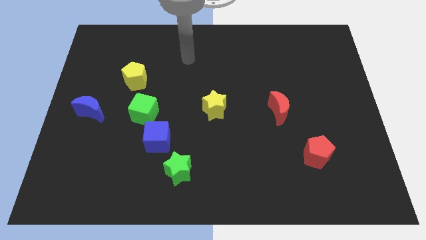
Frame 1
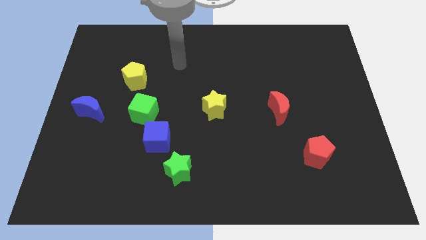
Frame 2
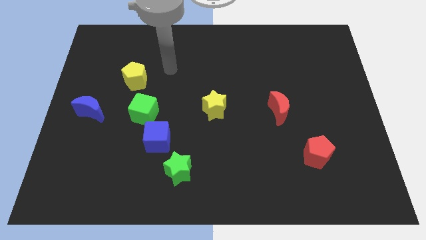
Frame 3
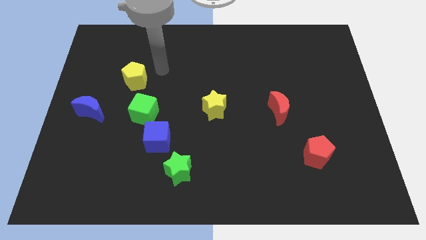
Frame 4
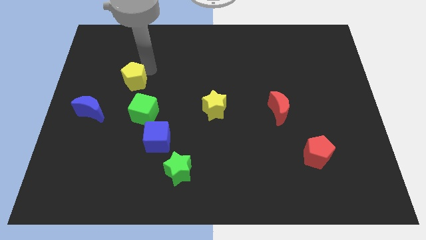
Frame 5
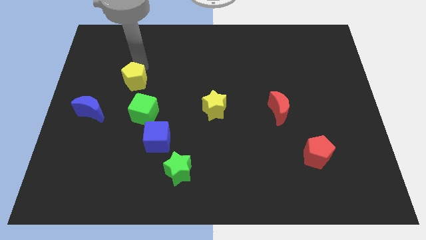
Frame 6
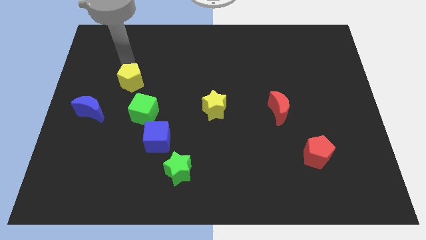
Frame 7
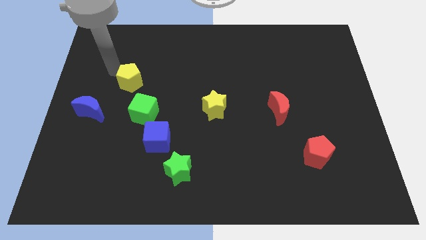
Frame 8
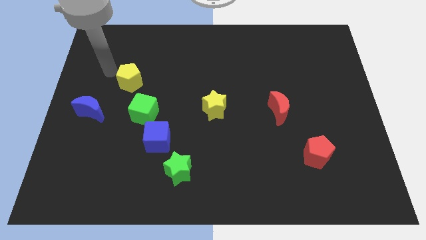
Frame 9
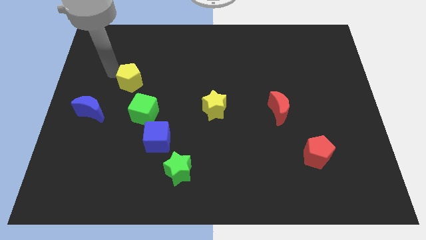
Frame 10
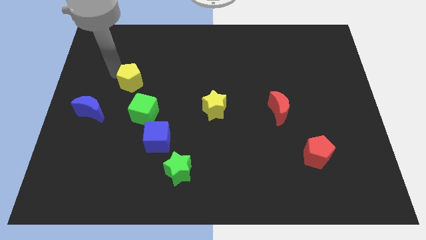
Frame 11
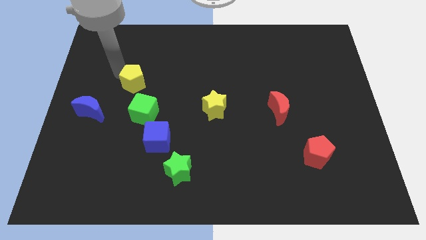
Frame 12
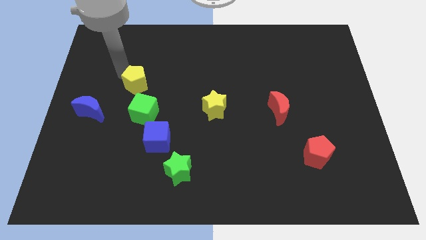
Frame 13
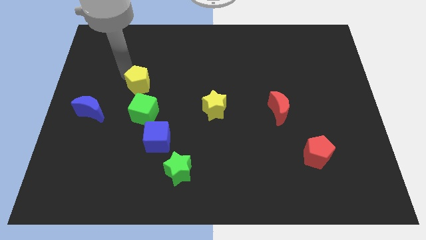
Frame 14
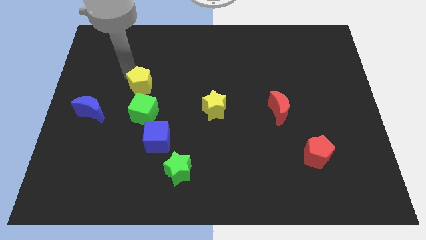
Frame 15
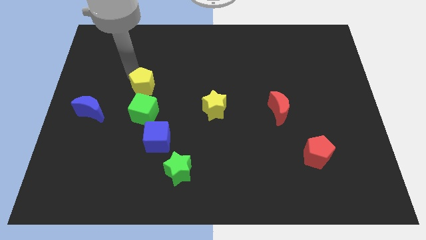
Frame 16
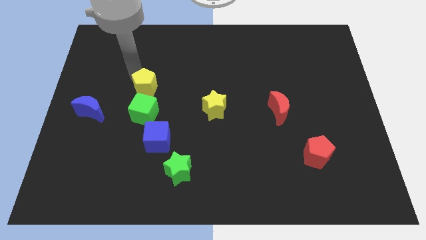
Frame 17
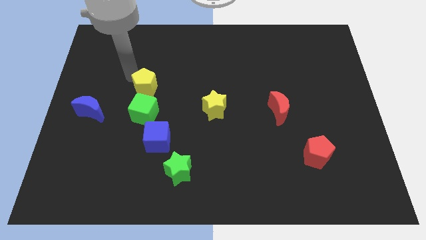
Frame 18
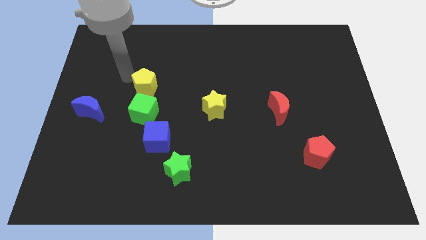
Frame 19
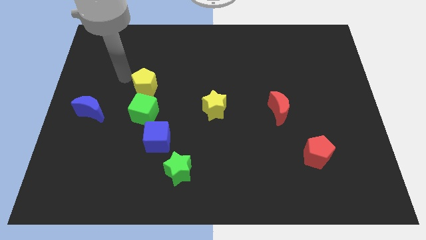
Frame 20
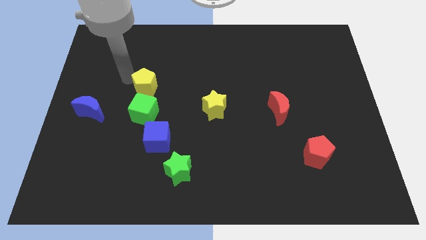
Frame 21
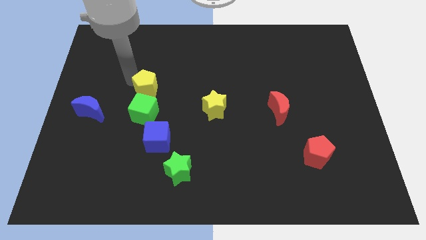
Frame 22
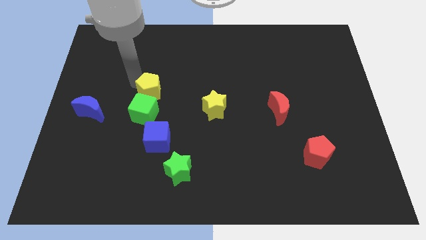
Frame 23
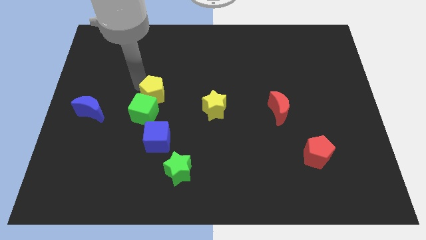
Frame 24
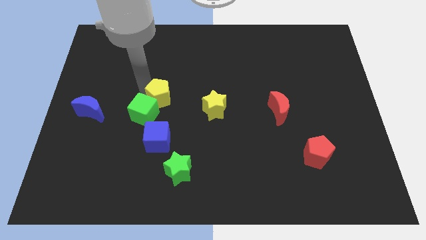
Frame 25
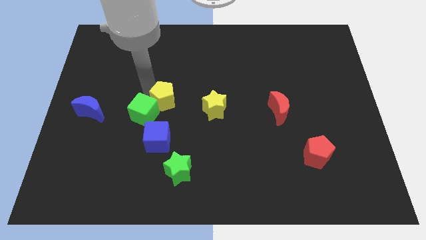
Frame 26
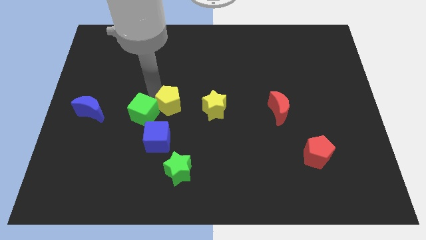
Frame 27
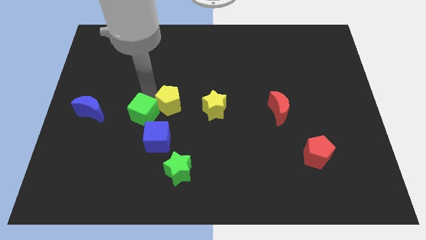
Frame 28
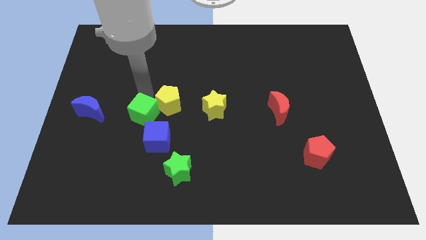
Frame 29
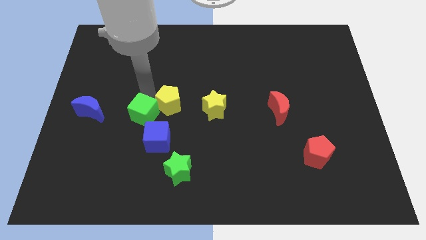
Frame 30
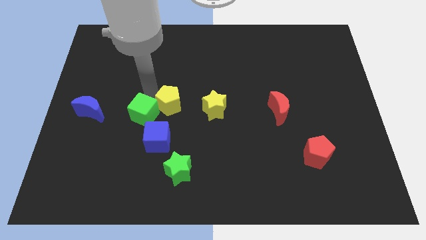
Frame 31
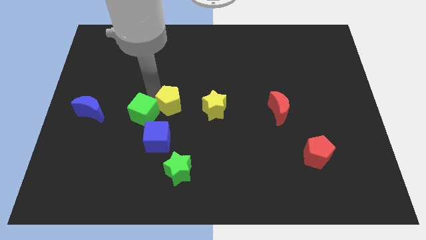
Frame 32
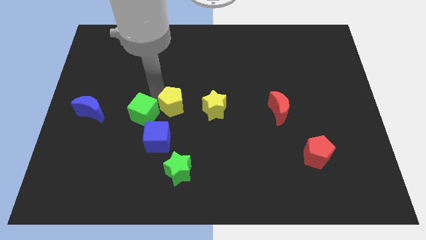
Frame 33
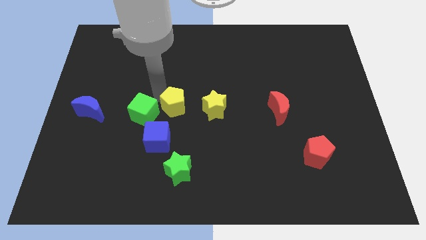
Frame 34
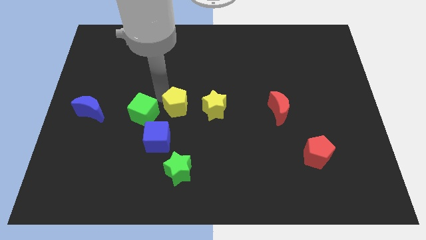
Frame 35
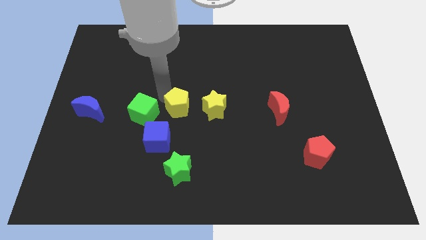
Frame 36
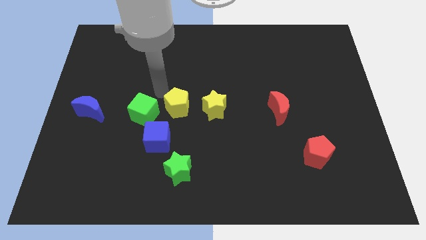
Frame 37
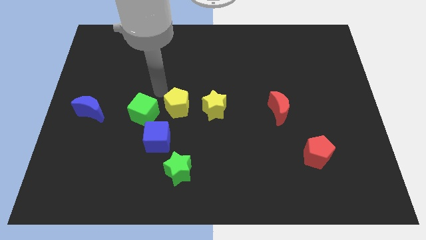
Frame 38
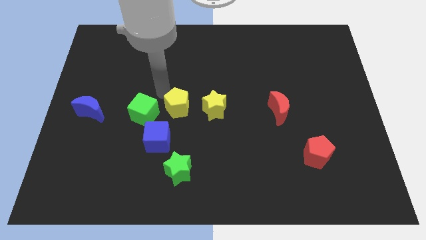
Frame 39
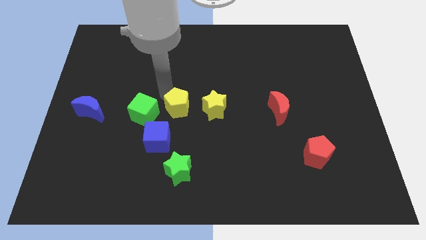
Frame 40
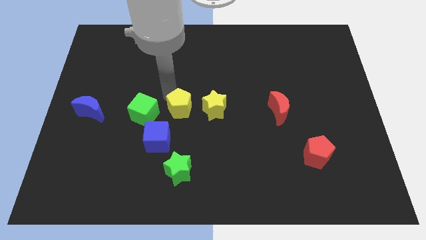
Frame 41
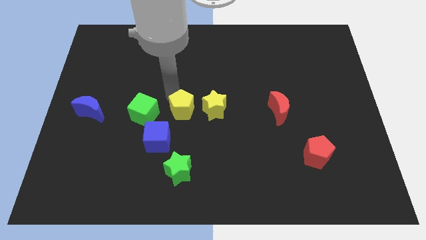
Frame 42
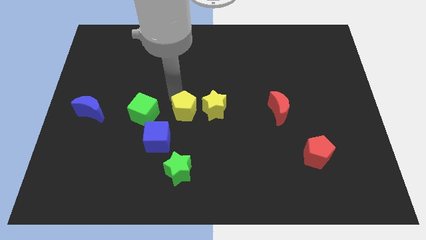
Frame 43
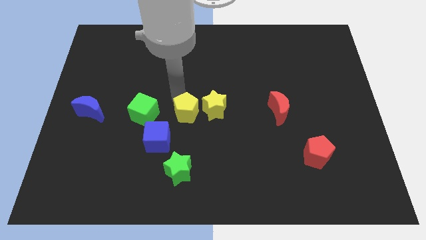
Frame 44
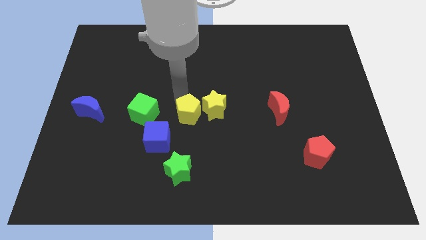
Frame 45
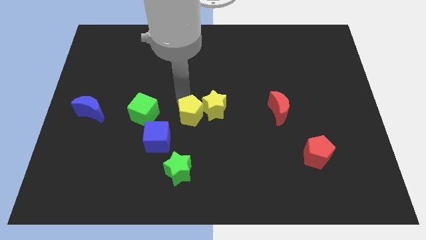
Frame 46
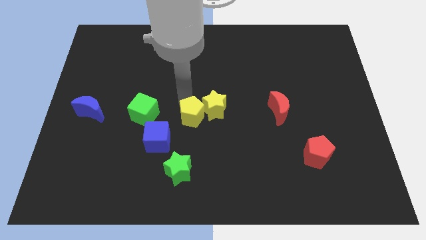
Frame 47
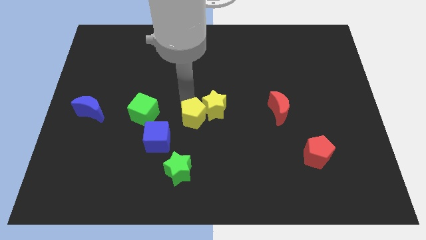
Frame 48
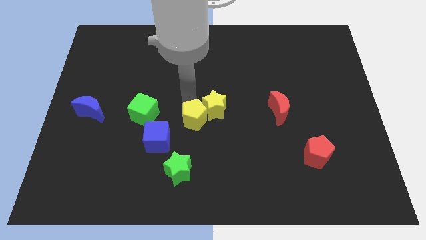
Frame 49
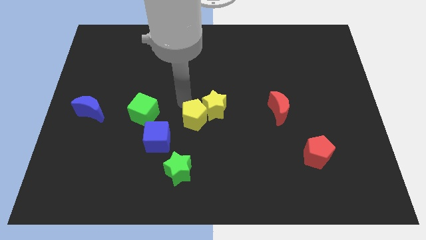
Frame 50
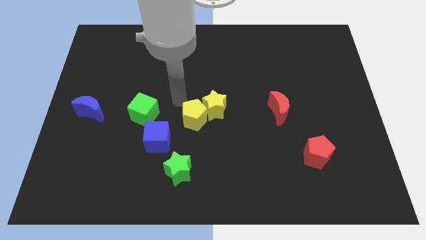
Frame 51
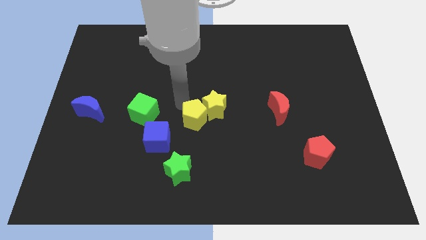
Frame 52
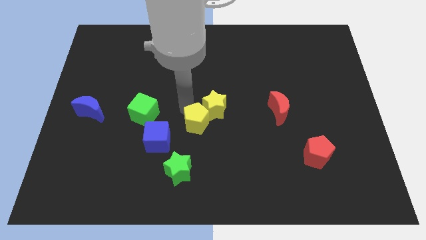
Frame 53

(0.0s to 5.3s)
push the yellow pentagon diagonally downwards and to the right

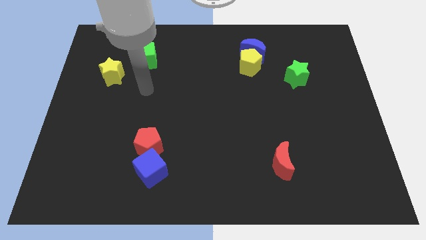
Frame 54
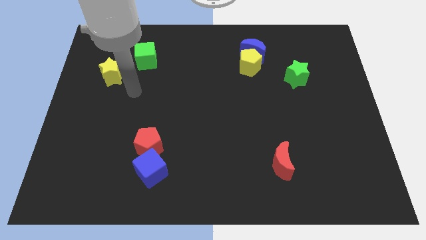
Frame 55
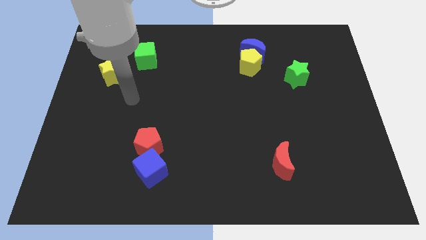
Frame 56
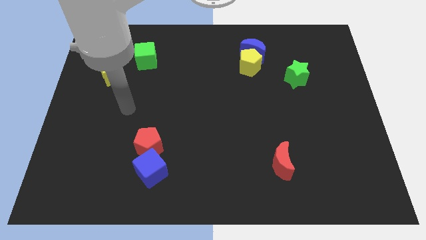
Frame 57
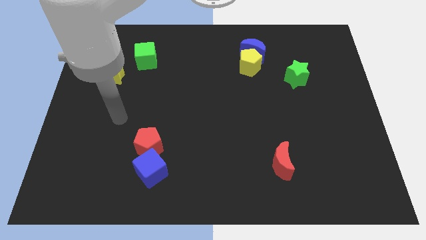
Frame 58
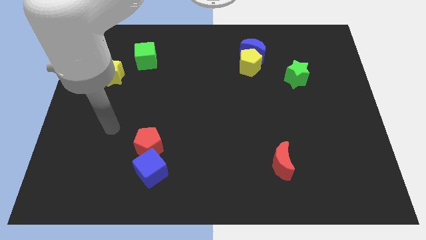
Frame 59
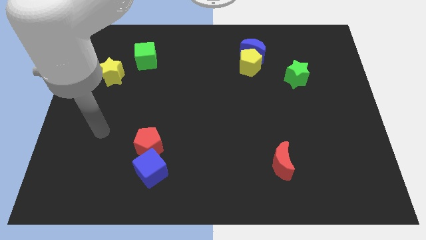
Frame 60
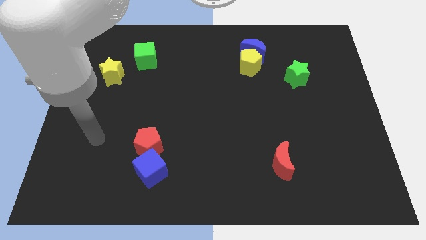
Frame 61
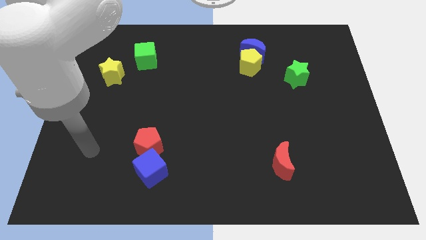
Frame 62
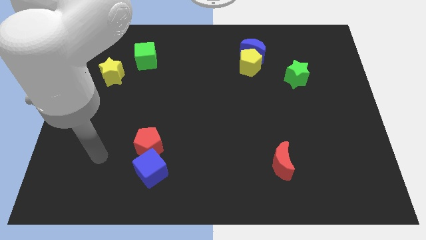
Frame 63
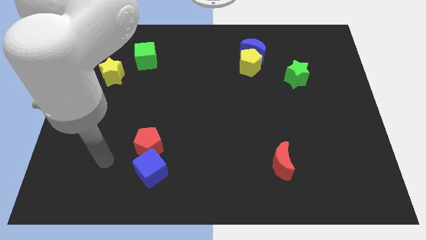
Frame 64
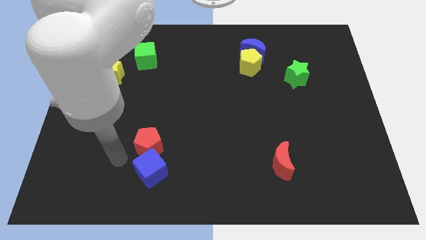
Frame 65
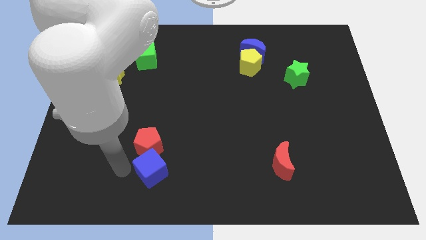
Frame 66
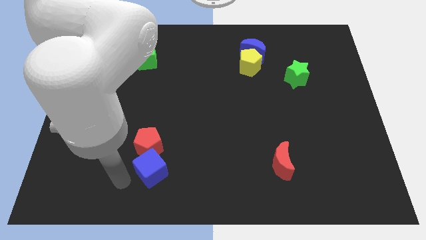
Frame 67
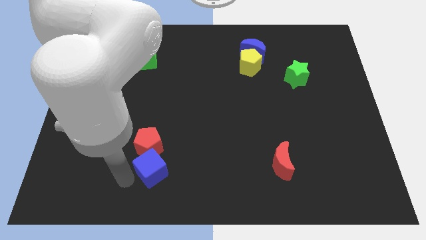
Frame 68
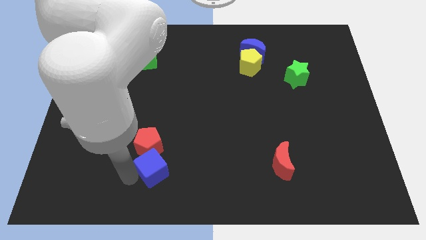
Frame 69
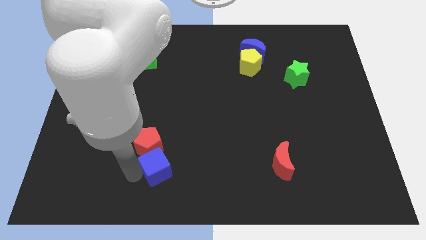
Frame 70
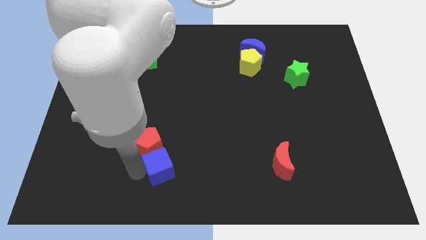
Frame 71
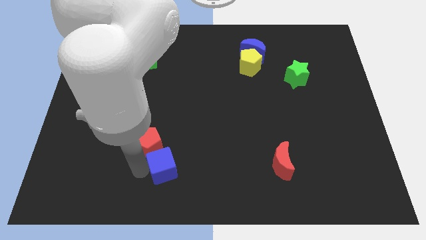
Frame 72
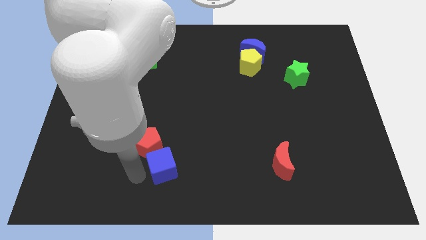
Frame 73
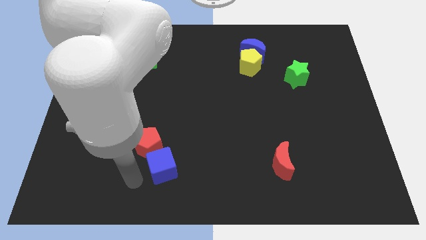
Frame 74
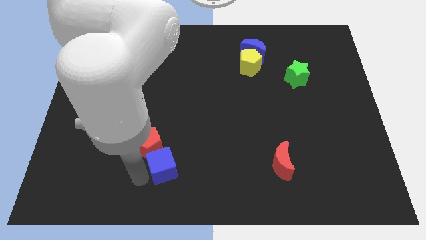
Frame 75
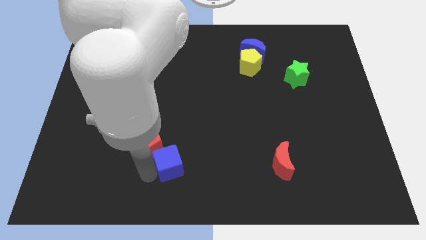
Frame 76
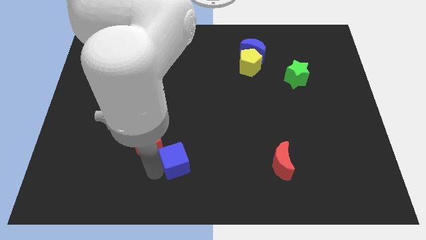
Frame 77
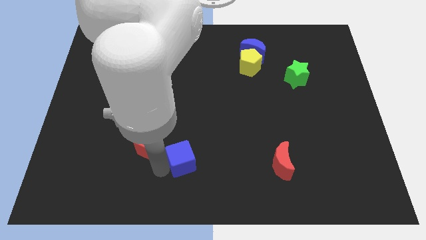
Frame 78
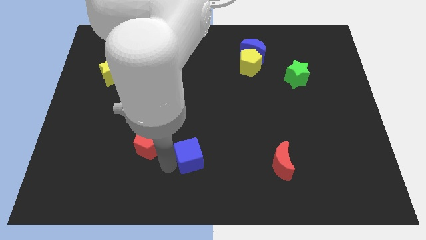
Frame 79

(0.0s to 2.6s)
slide the blue cube somewhat right
